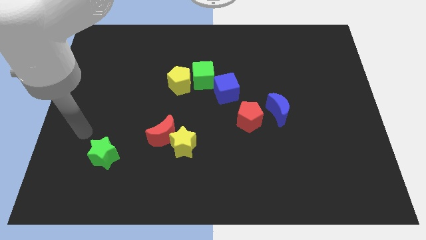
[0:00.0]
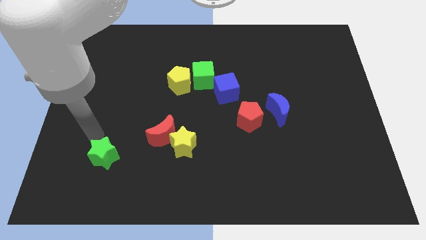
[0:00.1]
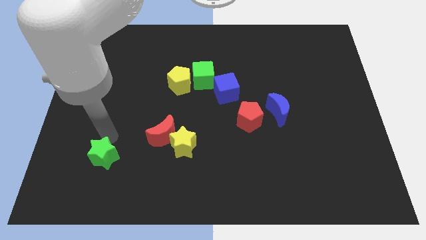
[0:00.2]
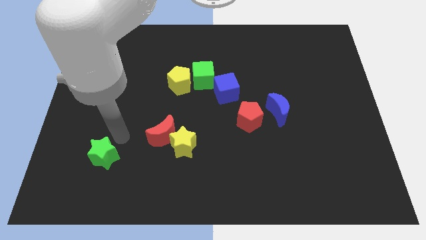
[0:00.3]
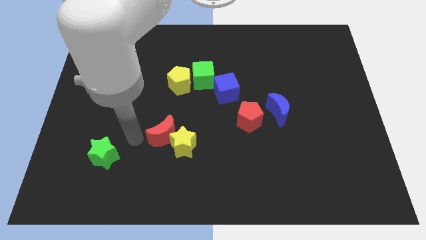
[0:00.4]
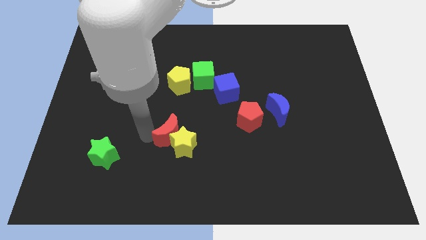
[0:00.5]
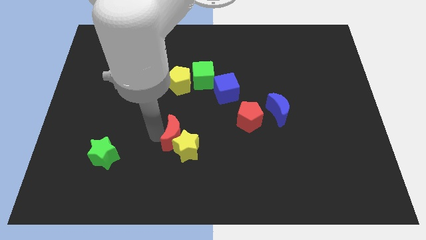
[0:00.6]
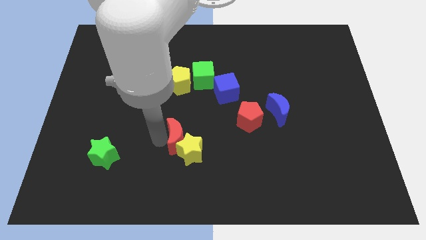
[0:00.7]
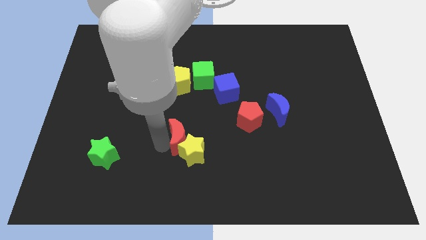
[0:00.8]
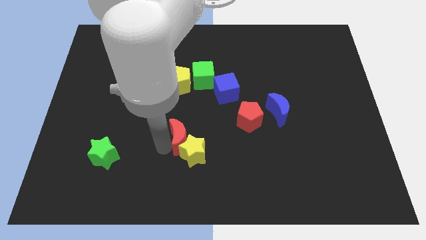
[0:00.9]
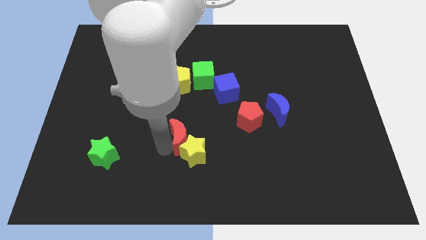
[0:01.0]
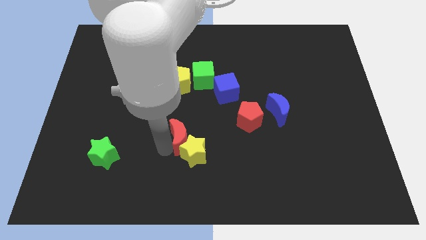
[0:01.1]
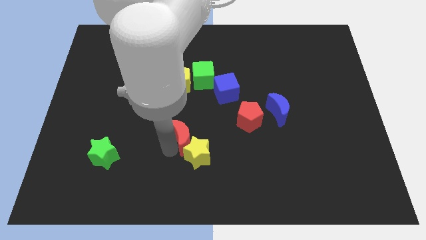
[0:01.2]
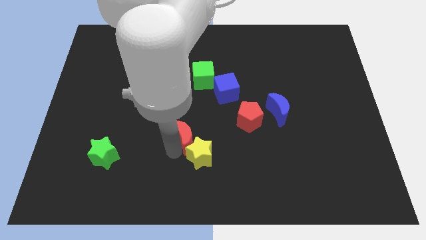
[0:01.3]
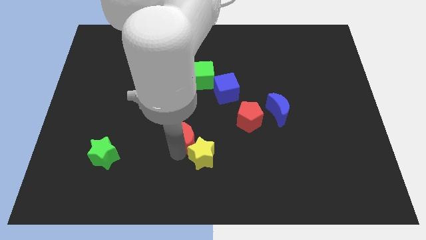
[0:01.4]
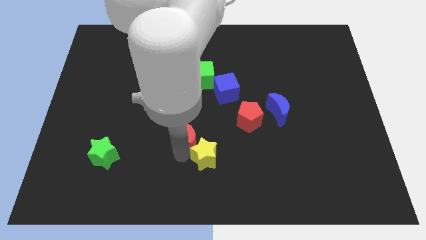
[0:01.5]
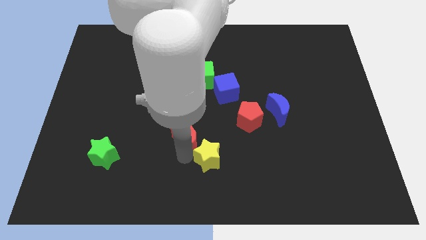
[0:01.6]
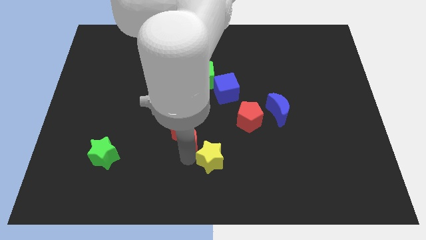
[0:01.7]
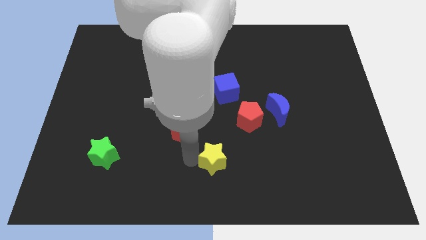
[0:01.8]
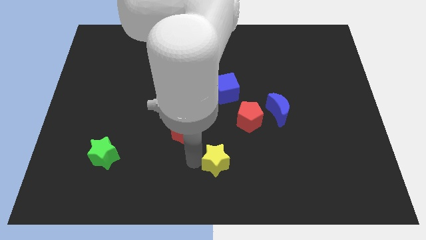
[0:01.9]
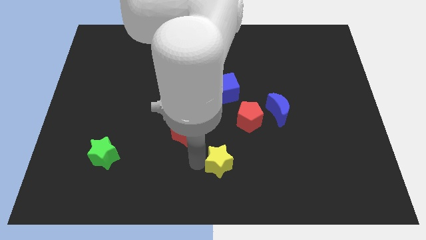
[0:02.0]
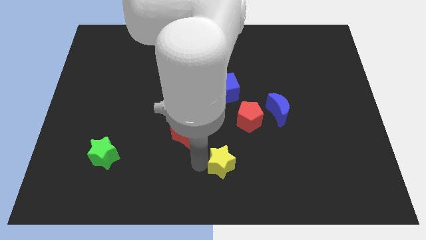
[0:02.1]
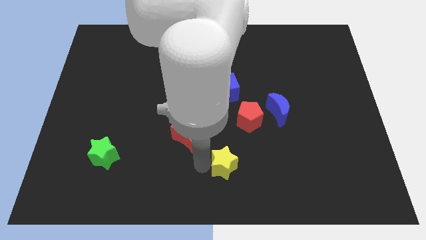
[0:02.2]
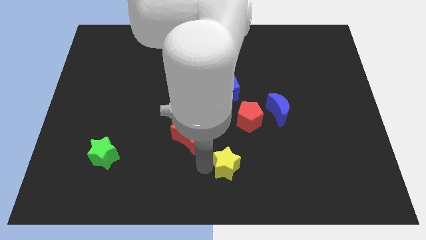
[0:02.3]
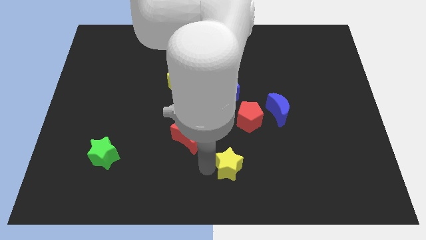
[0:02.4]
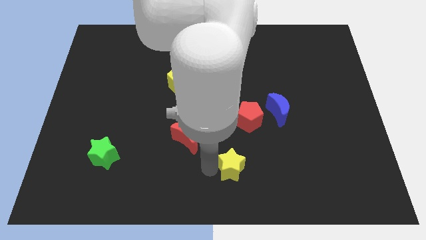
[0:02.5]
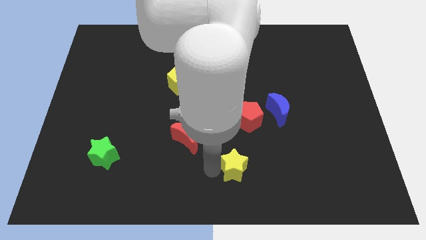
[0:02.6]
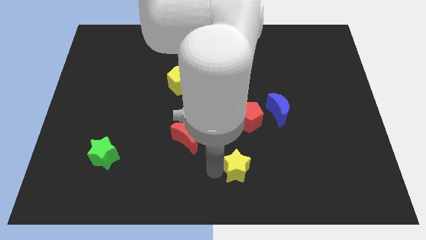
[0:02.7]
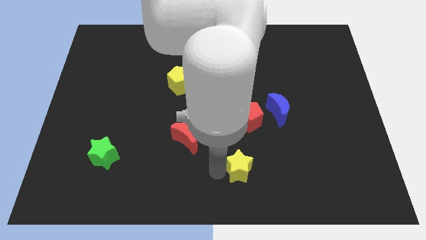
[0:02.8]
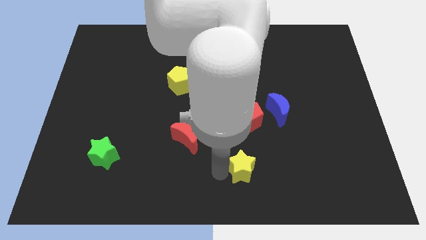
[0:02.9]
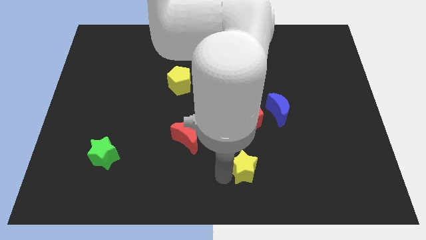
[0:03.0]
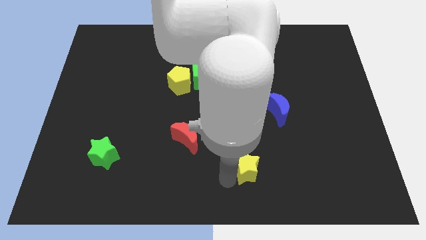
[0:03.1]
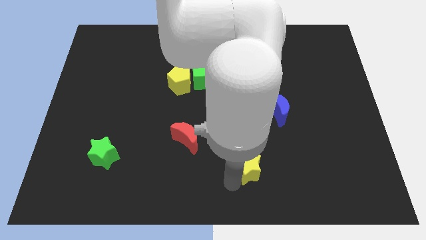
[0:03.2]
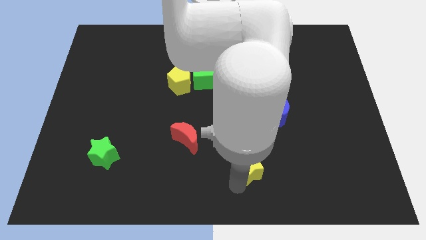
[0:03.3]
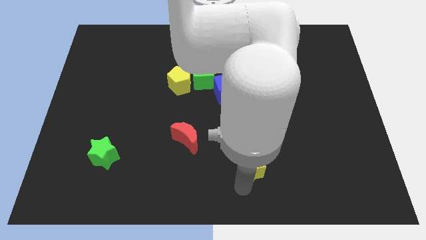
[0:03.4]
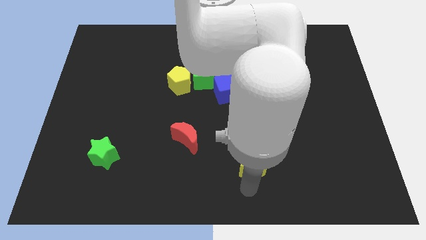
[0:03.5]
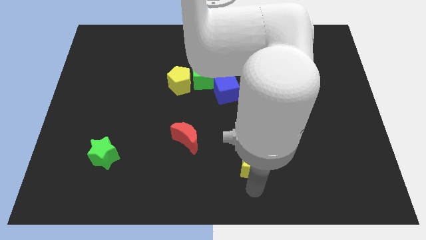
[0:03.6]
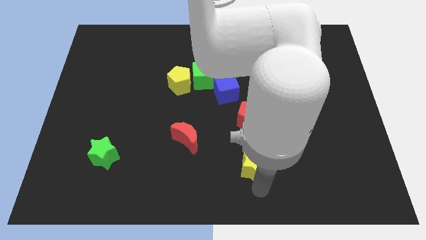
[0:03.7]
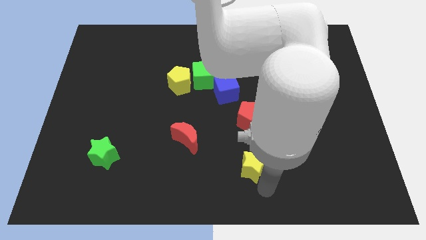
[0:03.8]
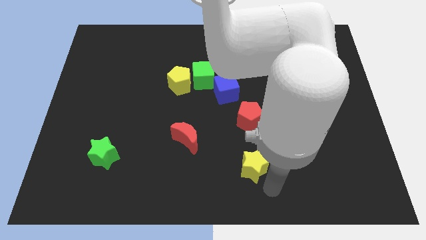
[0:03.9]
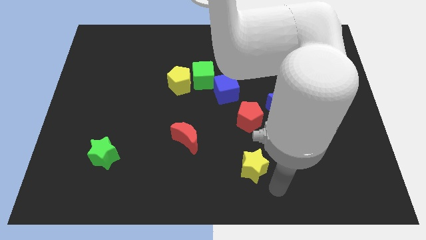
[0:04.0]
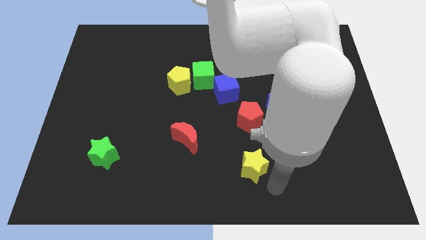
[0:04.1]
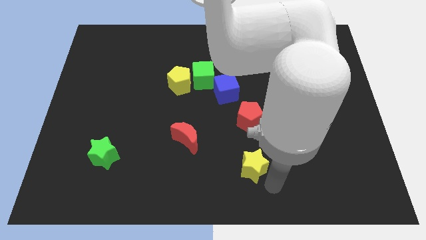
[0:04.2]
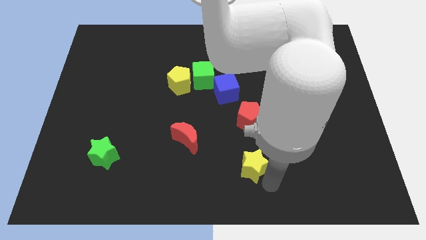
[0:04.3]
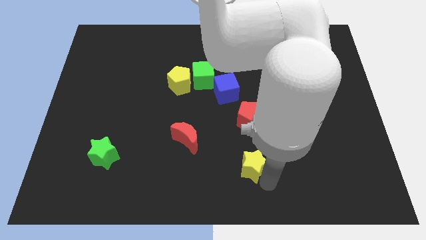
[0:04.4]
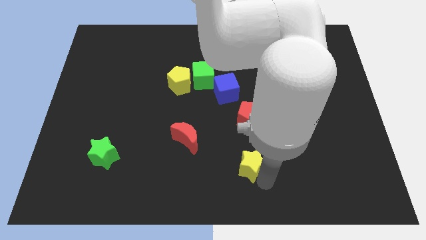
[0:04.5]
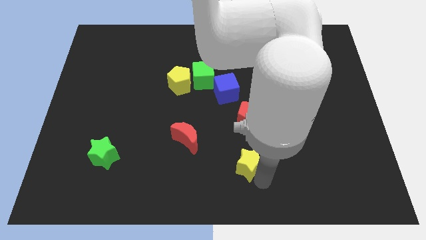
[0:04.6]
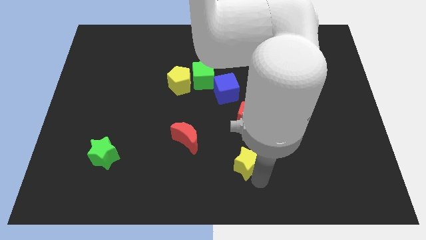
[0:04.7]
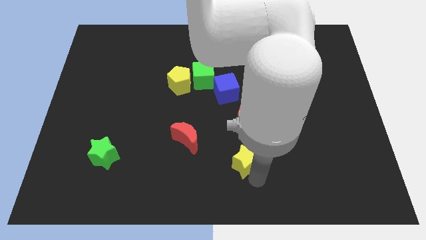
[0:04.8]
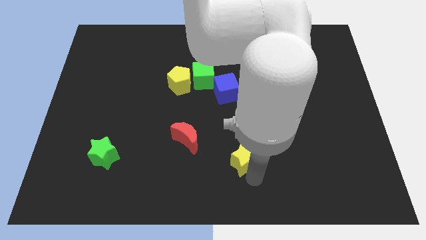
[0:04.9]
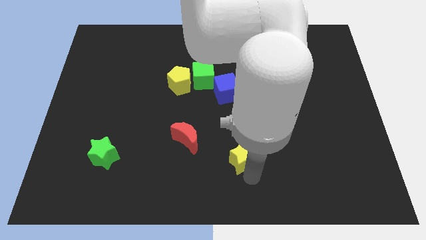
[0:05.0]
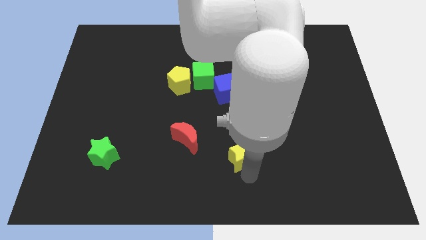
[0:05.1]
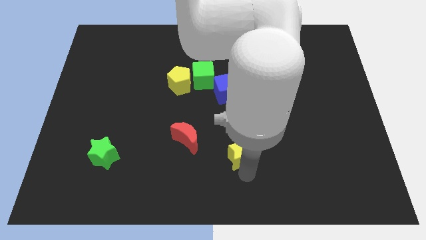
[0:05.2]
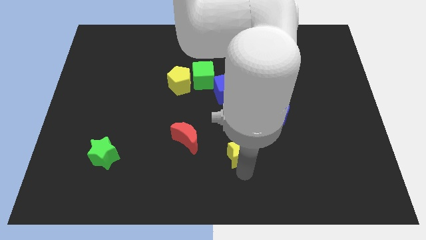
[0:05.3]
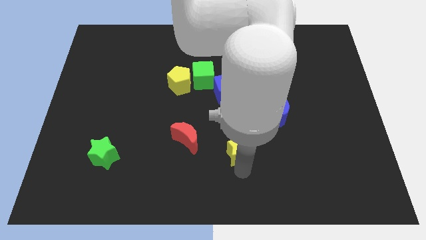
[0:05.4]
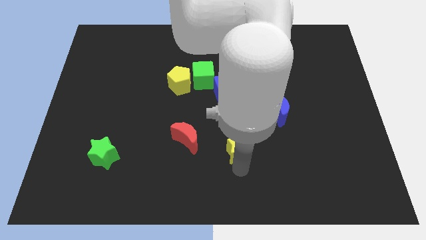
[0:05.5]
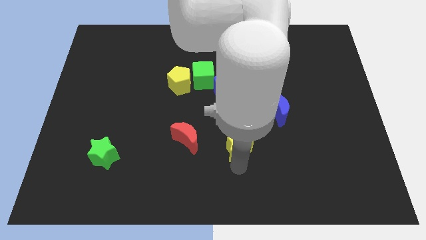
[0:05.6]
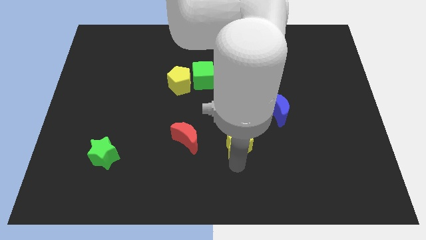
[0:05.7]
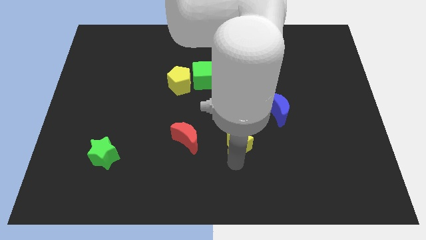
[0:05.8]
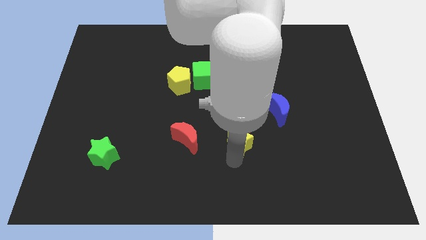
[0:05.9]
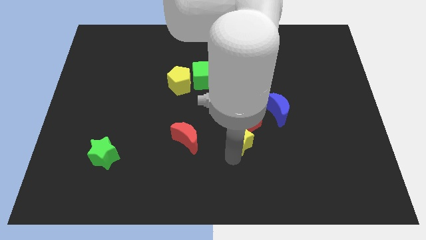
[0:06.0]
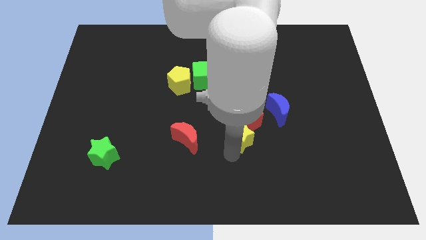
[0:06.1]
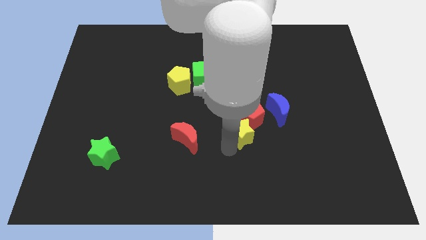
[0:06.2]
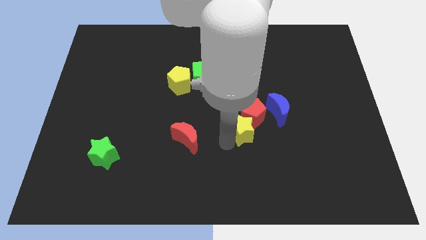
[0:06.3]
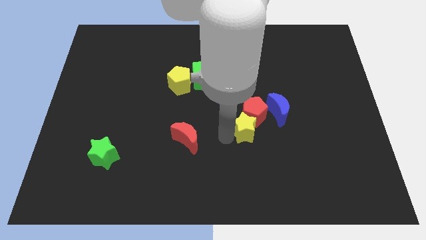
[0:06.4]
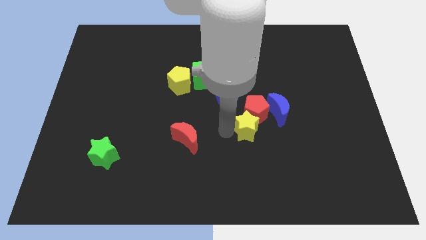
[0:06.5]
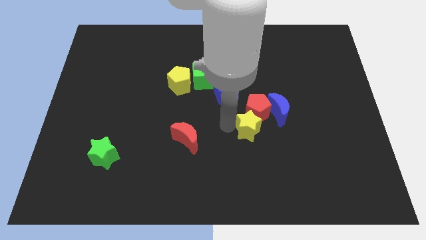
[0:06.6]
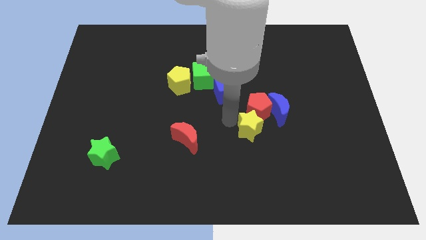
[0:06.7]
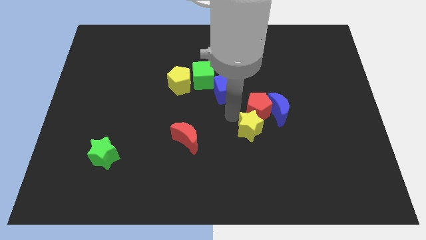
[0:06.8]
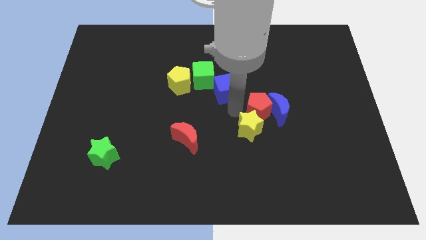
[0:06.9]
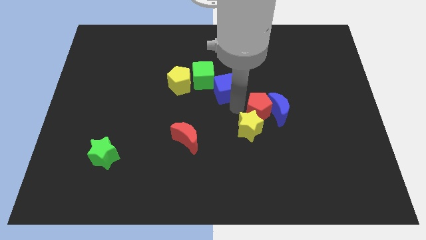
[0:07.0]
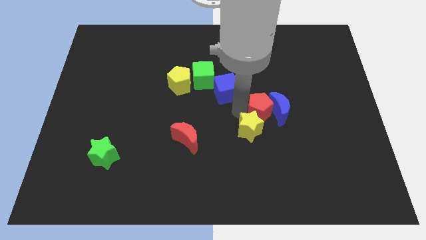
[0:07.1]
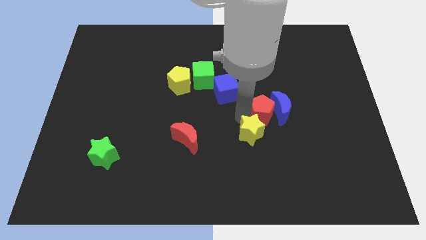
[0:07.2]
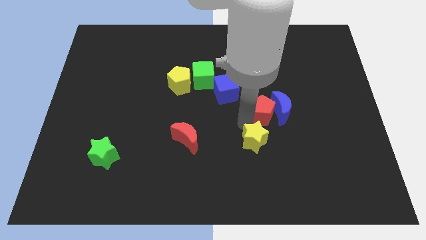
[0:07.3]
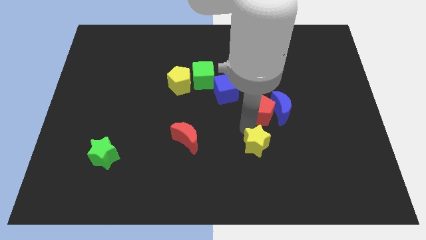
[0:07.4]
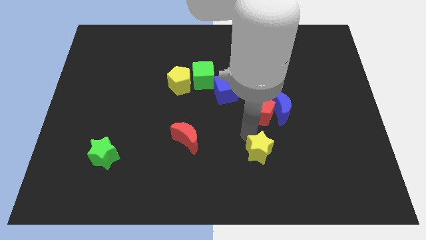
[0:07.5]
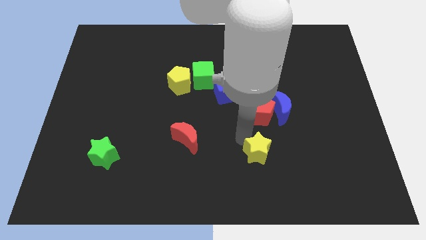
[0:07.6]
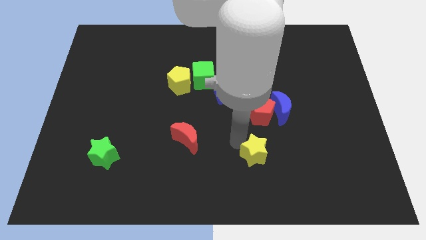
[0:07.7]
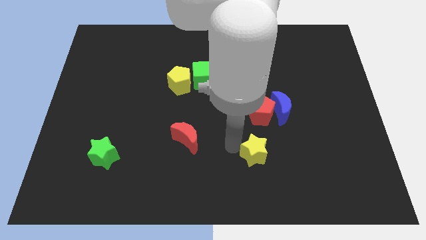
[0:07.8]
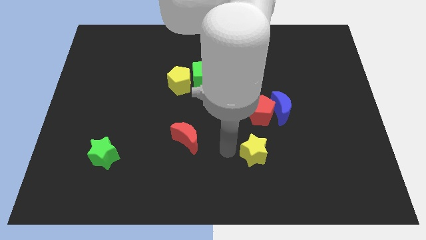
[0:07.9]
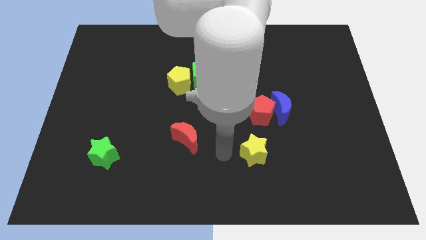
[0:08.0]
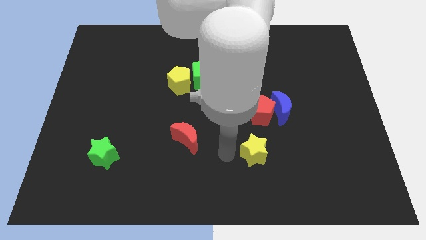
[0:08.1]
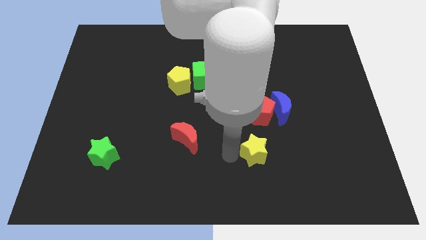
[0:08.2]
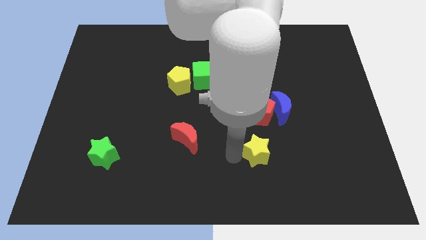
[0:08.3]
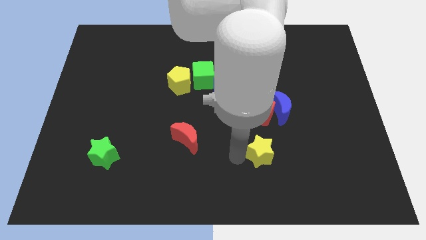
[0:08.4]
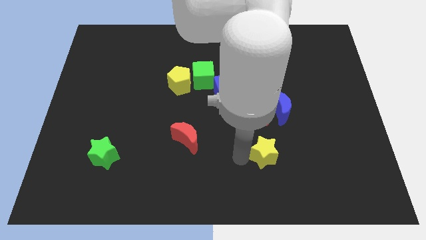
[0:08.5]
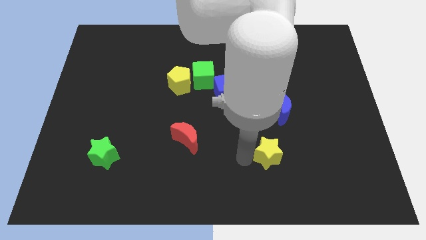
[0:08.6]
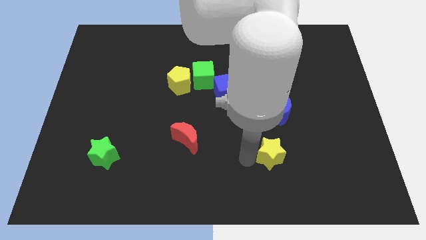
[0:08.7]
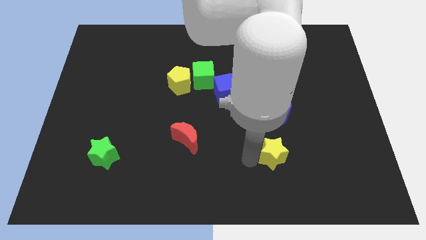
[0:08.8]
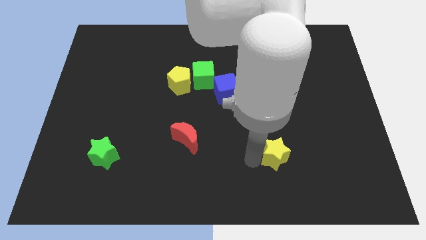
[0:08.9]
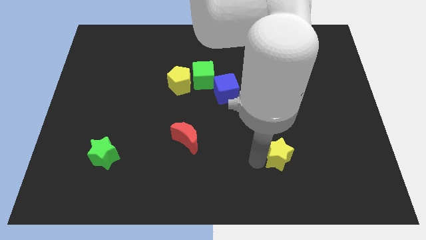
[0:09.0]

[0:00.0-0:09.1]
push the yellow star right
